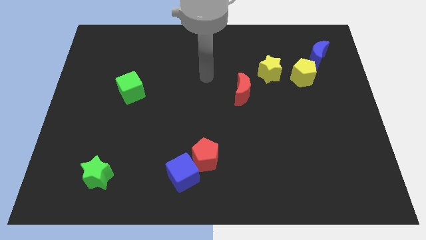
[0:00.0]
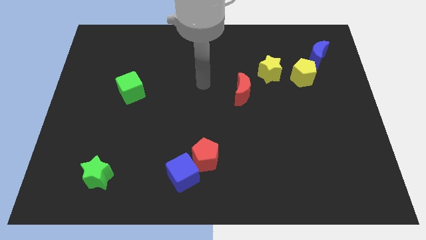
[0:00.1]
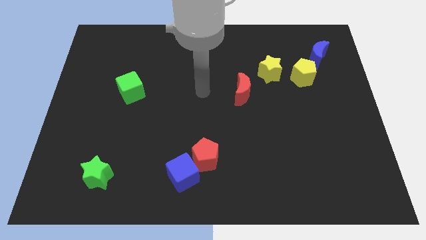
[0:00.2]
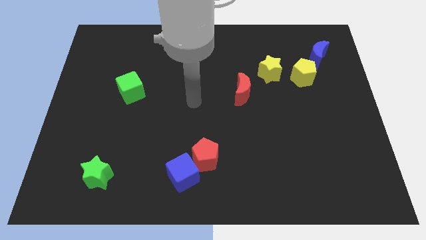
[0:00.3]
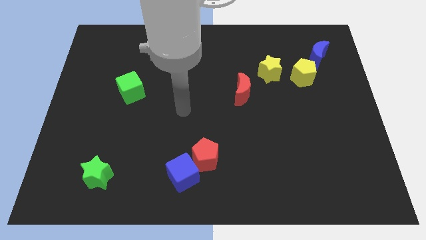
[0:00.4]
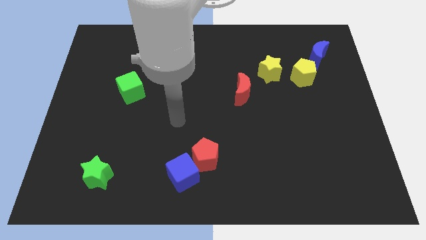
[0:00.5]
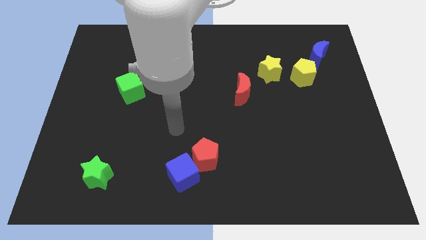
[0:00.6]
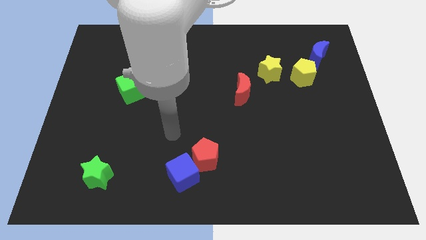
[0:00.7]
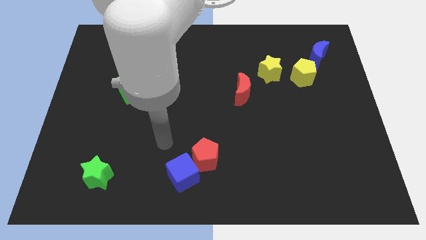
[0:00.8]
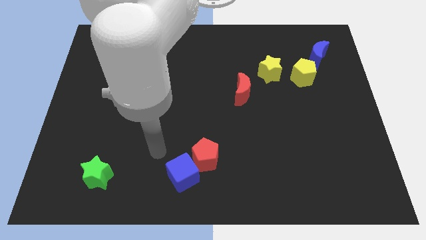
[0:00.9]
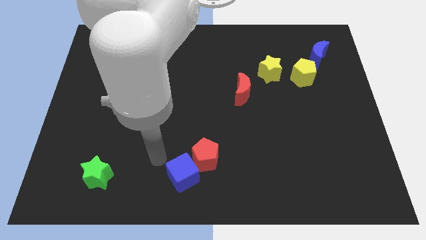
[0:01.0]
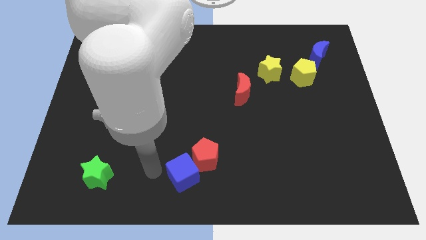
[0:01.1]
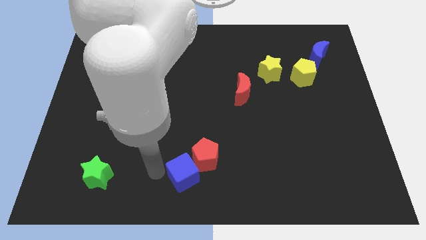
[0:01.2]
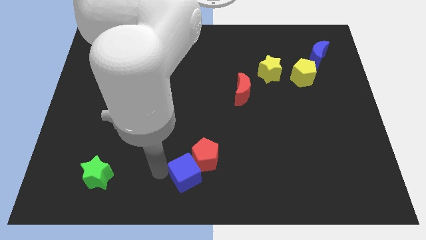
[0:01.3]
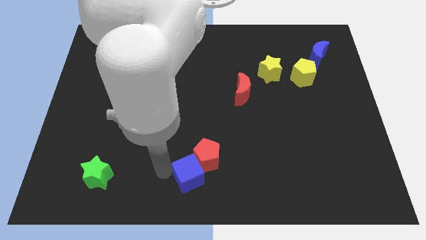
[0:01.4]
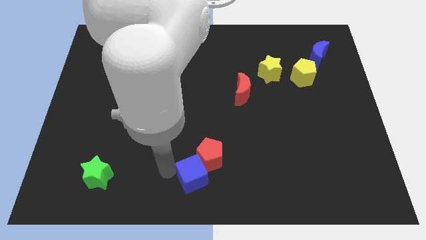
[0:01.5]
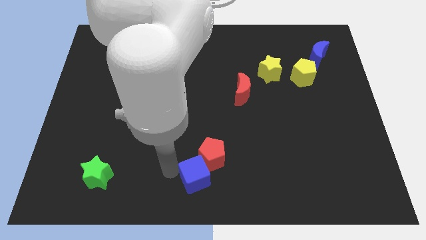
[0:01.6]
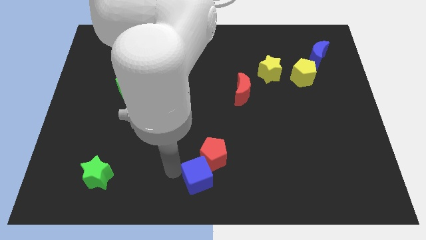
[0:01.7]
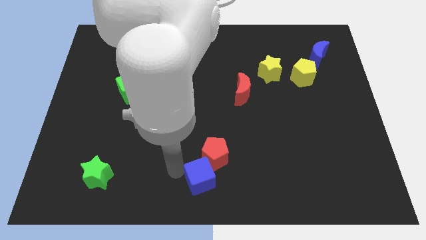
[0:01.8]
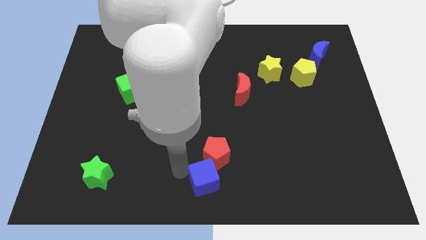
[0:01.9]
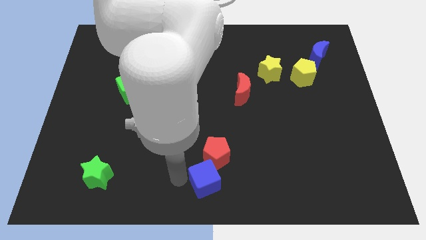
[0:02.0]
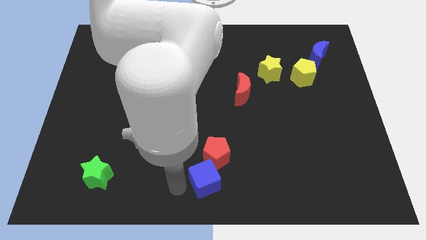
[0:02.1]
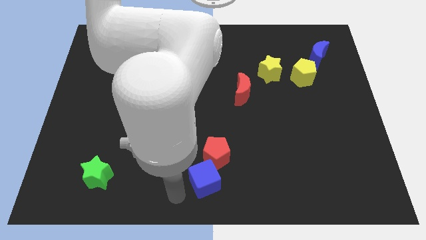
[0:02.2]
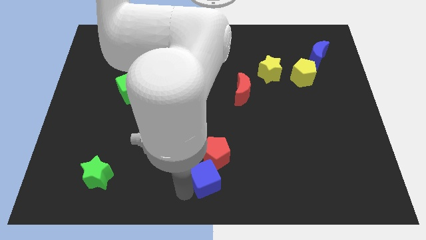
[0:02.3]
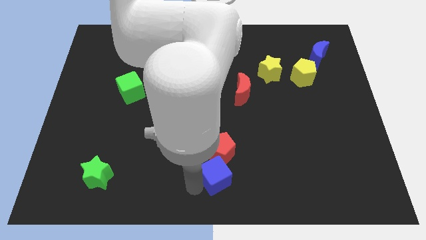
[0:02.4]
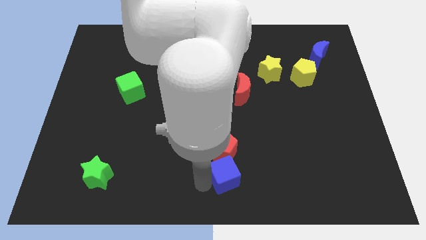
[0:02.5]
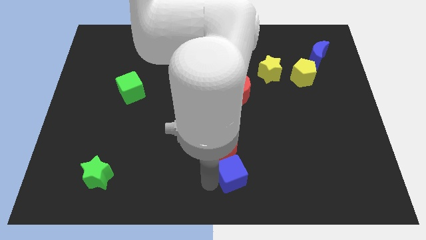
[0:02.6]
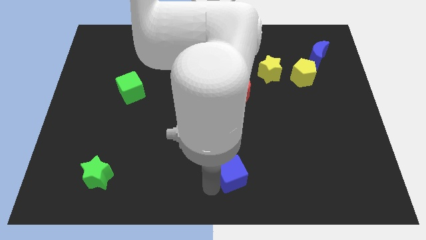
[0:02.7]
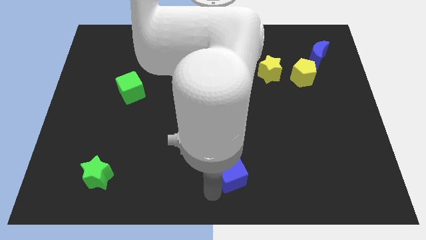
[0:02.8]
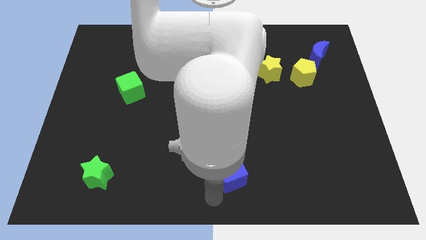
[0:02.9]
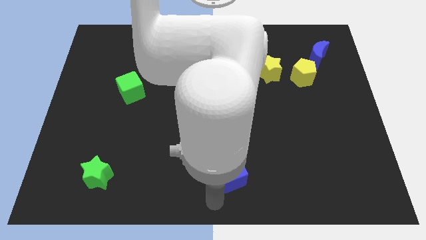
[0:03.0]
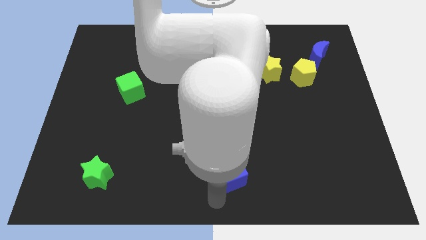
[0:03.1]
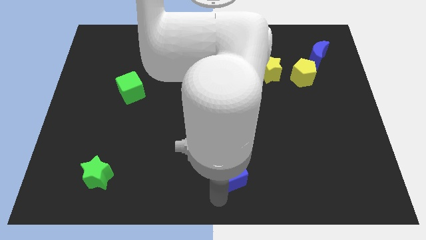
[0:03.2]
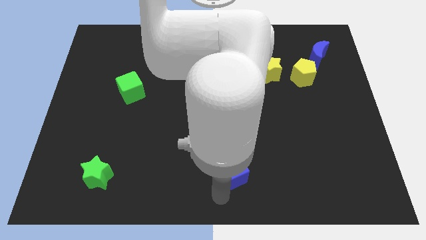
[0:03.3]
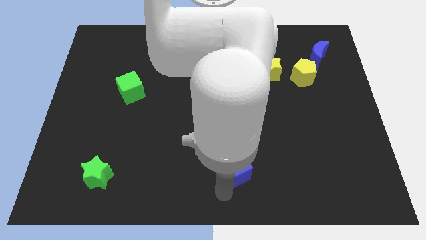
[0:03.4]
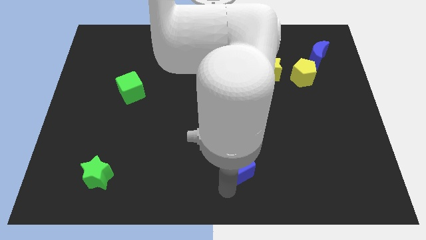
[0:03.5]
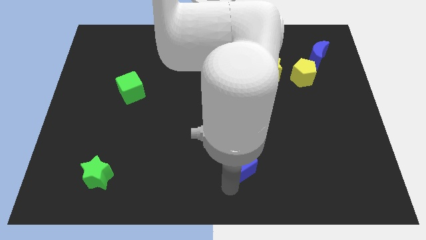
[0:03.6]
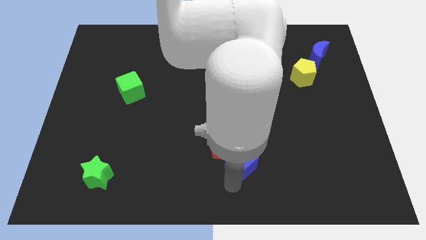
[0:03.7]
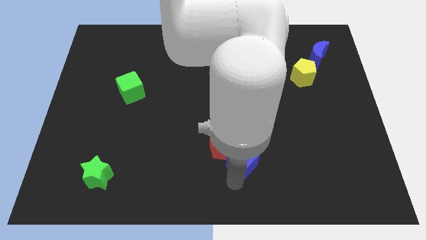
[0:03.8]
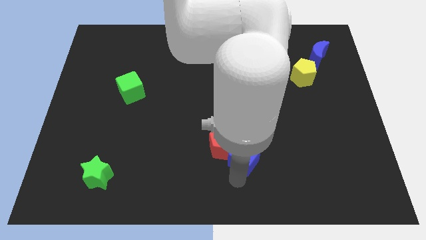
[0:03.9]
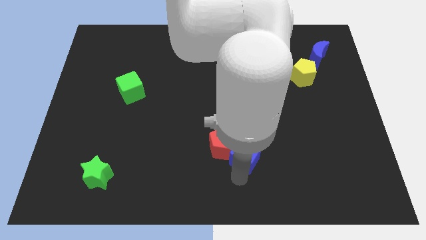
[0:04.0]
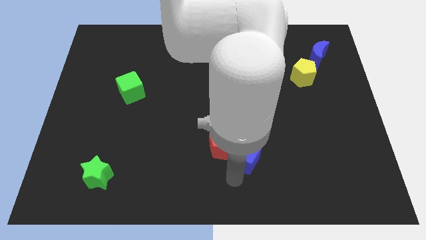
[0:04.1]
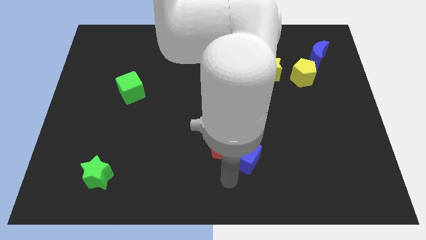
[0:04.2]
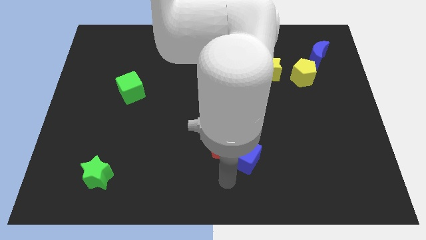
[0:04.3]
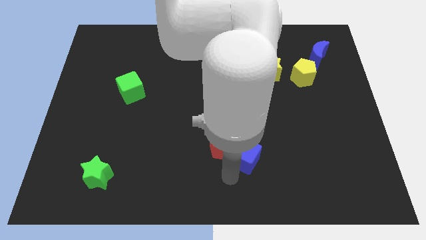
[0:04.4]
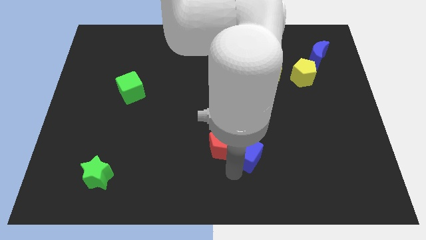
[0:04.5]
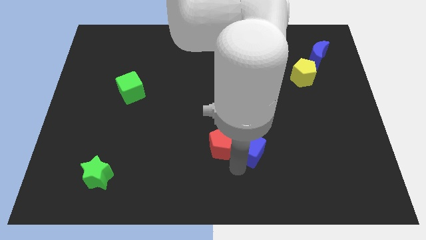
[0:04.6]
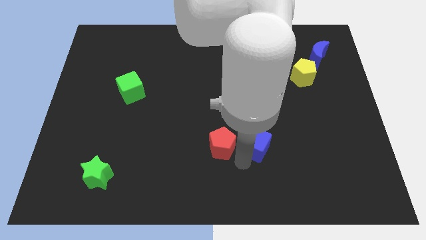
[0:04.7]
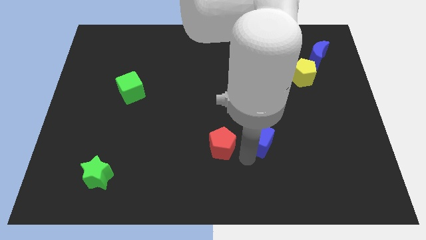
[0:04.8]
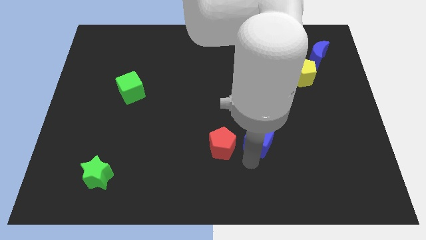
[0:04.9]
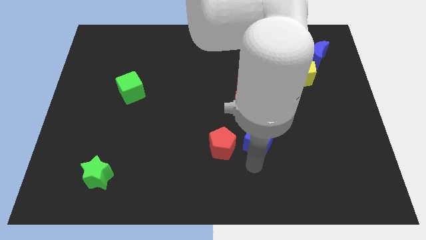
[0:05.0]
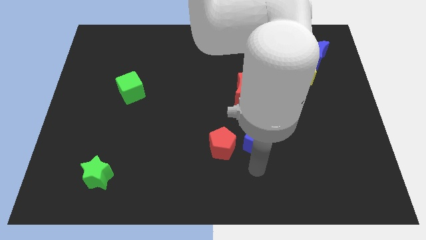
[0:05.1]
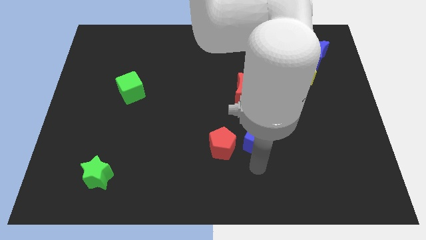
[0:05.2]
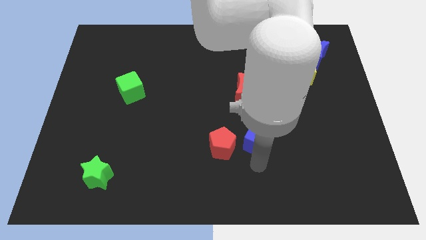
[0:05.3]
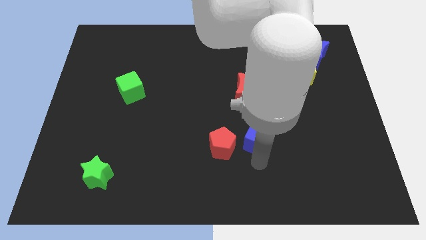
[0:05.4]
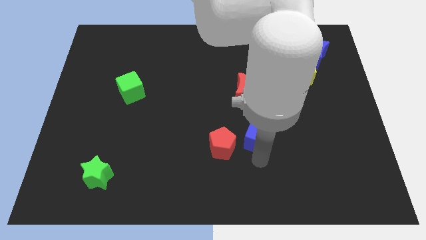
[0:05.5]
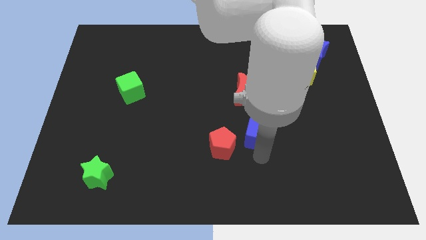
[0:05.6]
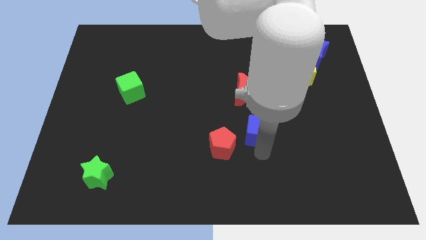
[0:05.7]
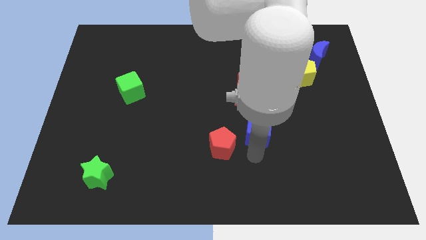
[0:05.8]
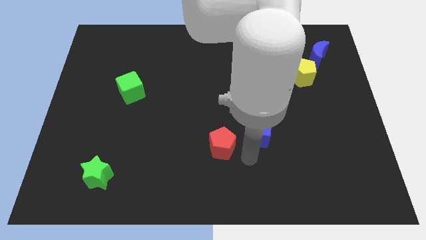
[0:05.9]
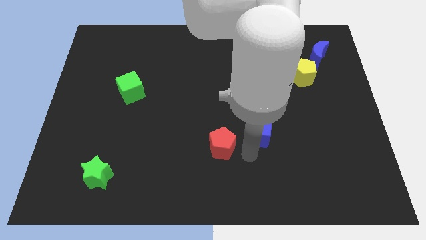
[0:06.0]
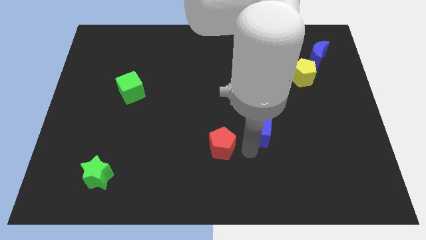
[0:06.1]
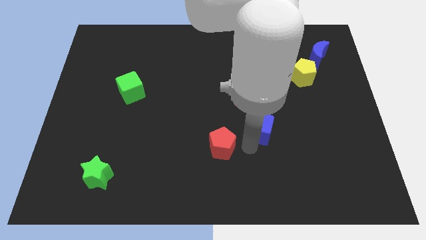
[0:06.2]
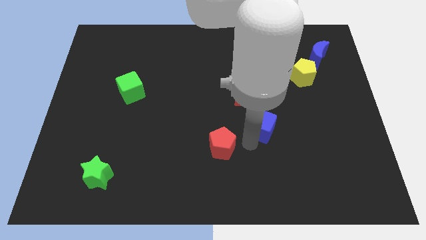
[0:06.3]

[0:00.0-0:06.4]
push the blue cube diagonally upwards and to the right

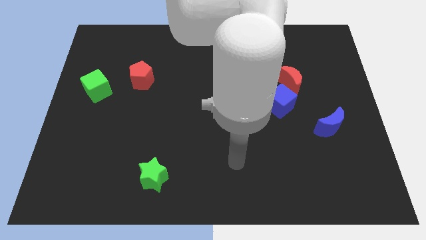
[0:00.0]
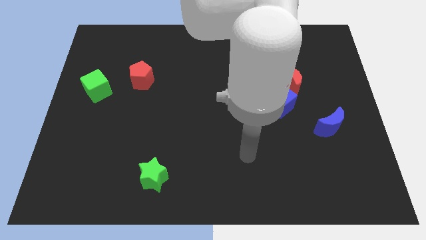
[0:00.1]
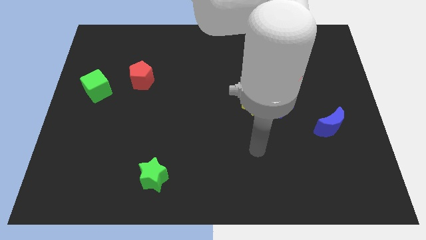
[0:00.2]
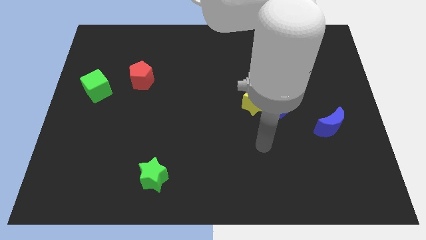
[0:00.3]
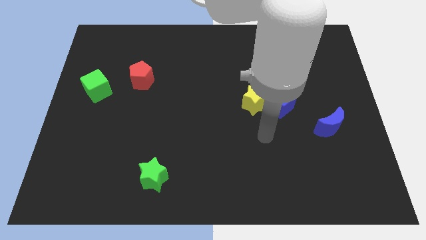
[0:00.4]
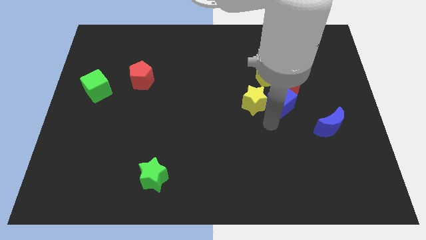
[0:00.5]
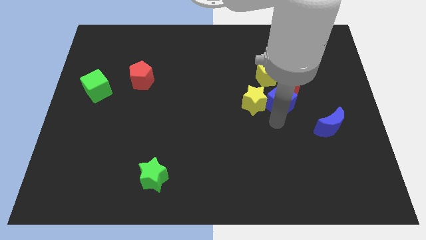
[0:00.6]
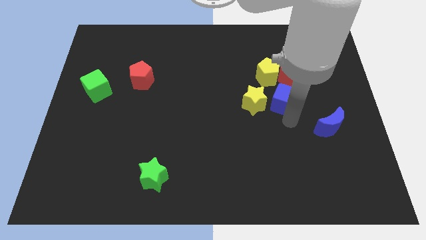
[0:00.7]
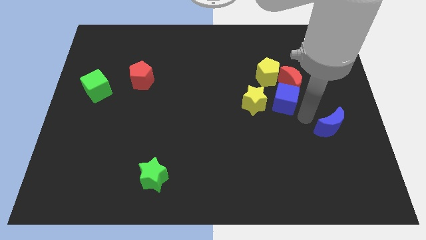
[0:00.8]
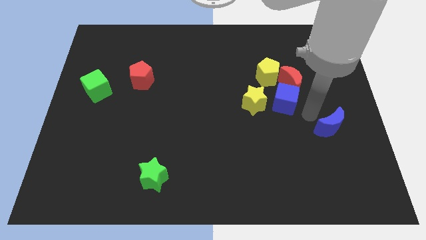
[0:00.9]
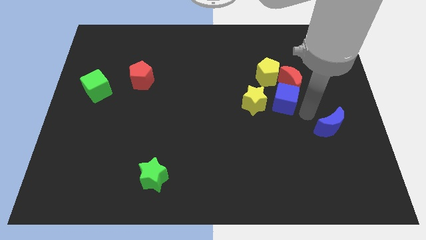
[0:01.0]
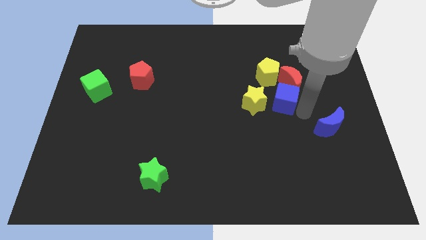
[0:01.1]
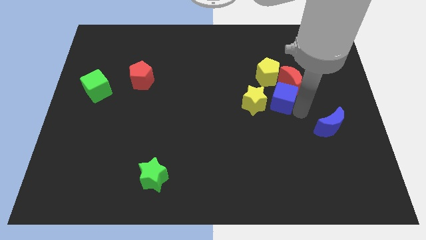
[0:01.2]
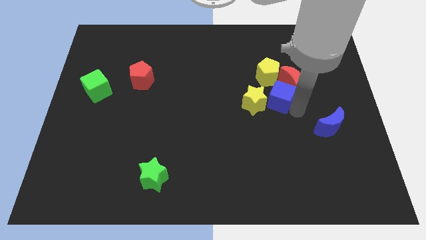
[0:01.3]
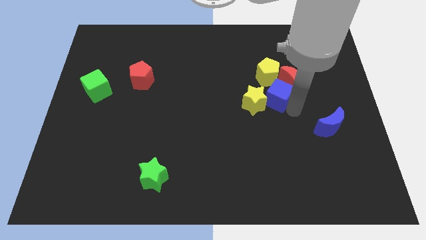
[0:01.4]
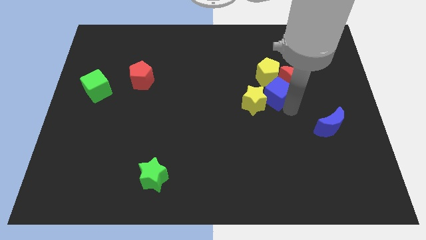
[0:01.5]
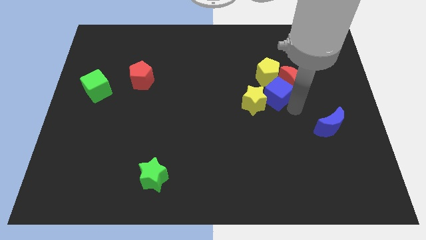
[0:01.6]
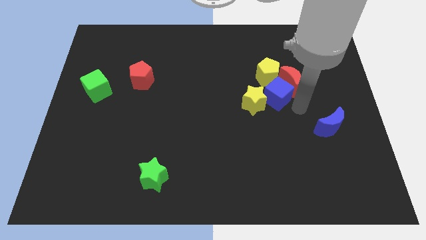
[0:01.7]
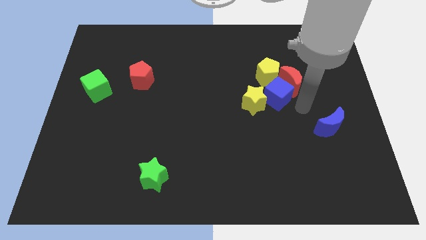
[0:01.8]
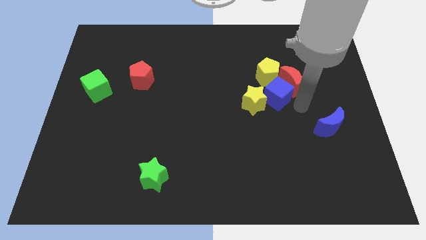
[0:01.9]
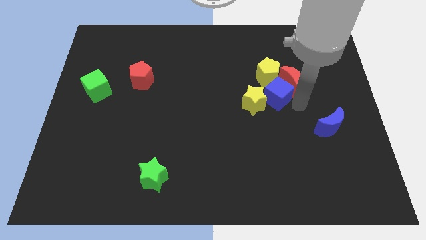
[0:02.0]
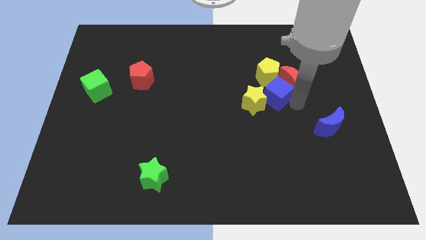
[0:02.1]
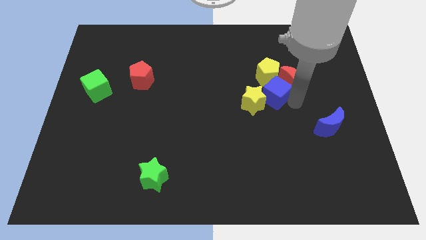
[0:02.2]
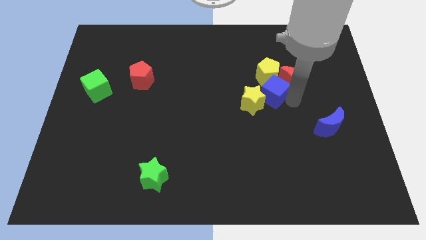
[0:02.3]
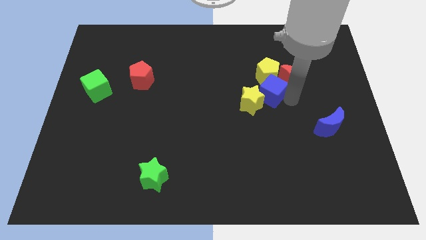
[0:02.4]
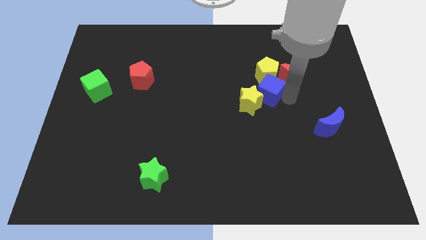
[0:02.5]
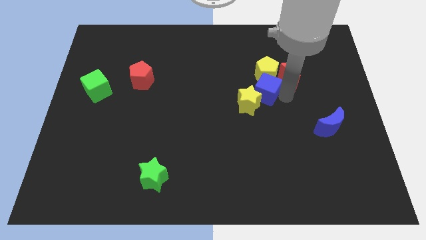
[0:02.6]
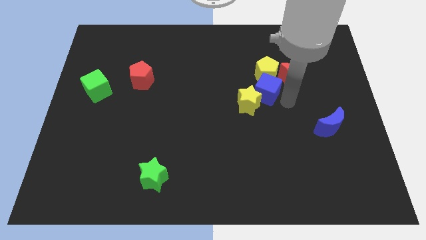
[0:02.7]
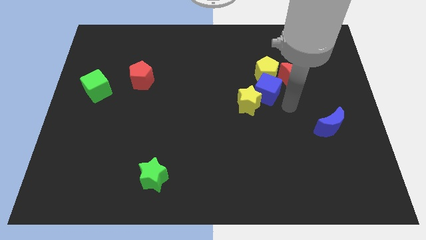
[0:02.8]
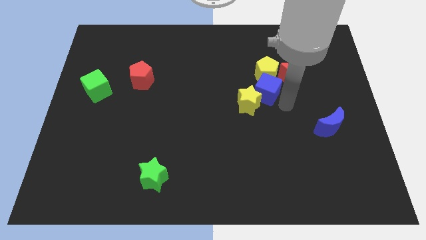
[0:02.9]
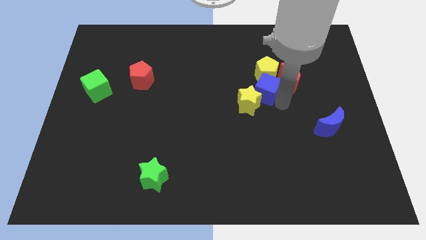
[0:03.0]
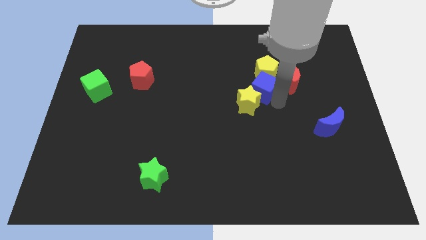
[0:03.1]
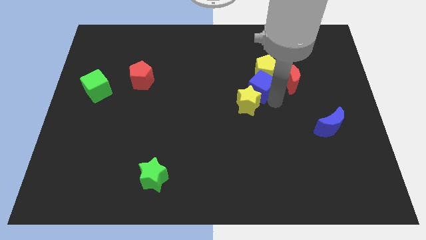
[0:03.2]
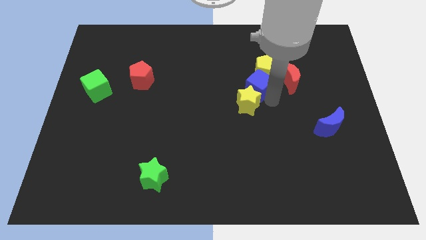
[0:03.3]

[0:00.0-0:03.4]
move the blue cube up and to the left a bit
